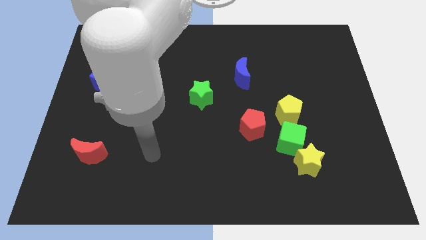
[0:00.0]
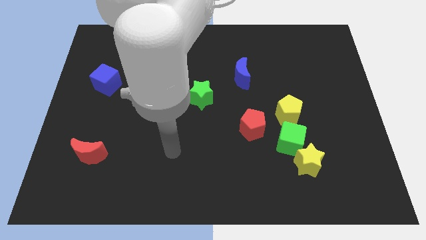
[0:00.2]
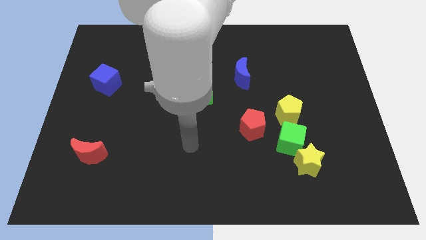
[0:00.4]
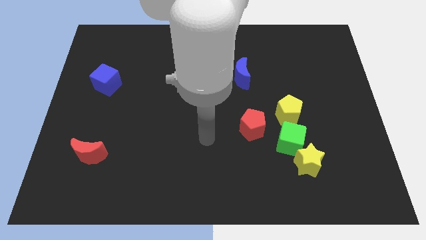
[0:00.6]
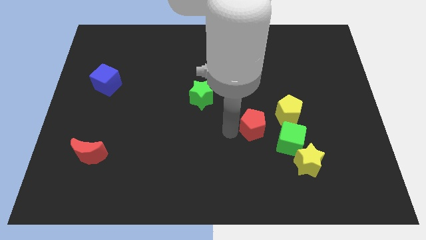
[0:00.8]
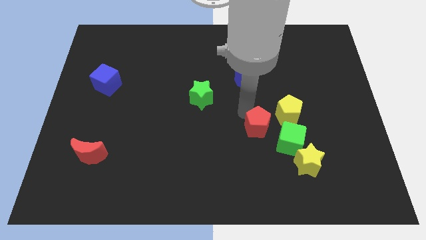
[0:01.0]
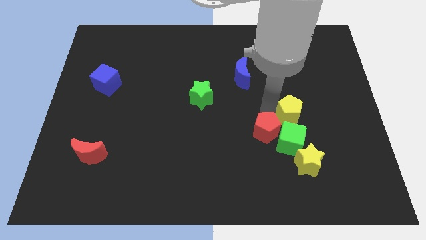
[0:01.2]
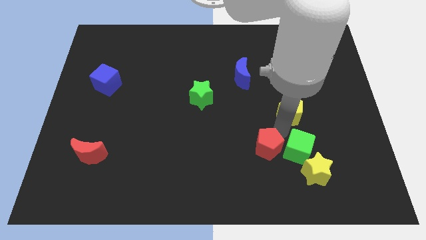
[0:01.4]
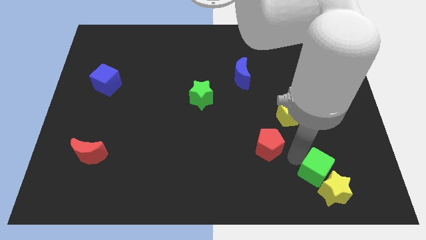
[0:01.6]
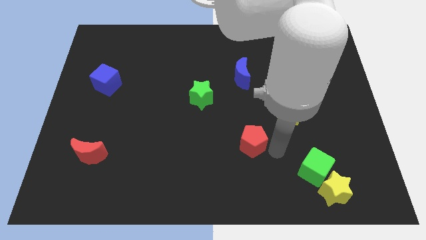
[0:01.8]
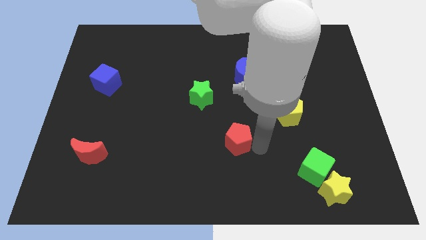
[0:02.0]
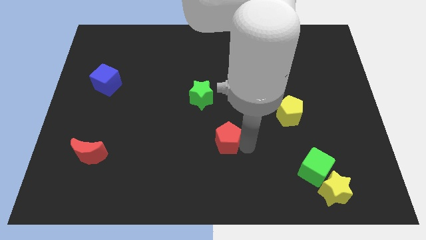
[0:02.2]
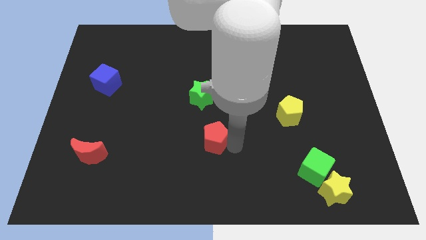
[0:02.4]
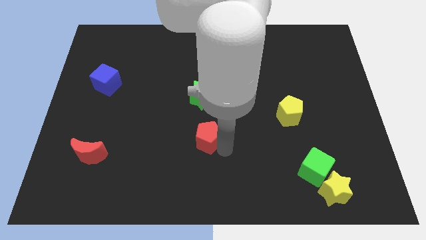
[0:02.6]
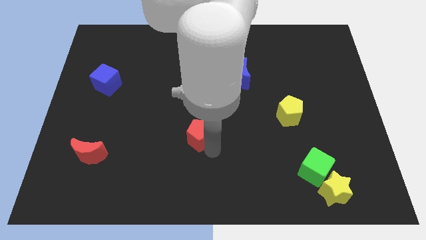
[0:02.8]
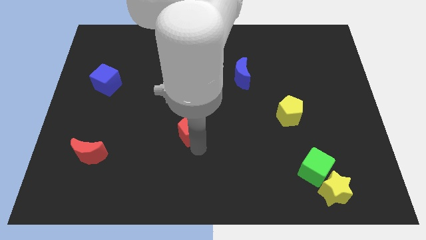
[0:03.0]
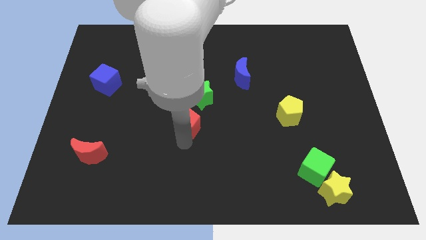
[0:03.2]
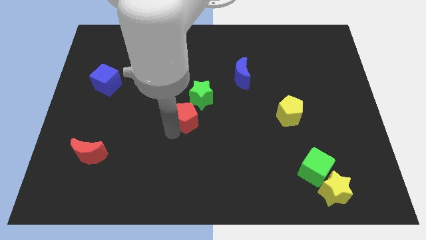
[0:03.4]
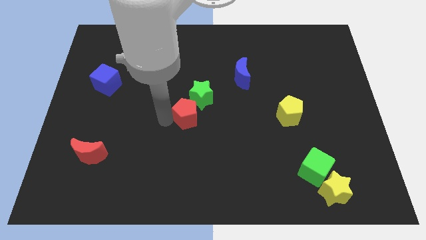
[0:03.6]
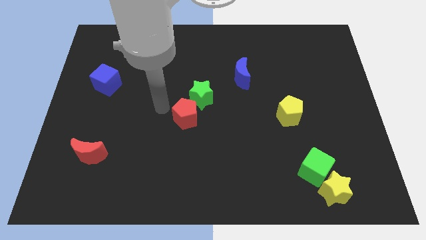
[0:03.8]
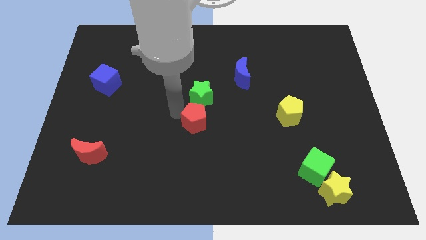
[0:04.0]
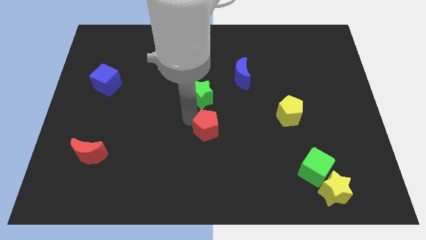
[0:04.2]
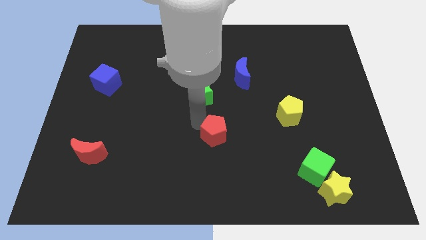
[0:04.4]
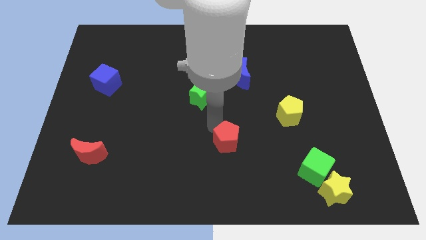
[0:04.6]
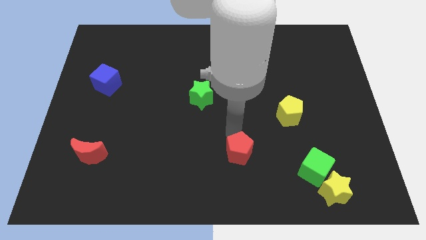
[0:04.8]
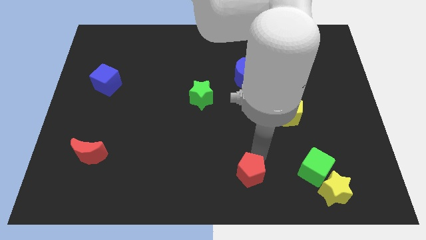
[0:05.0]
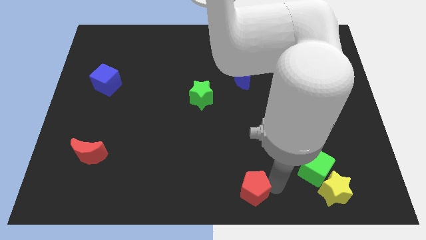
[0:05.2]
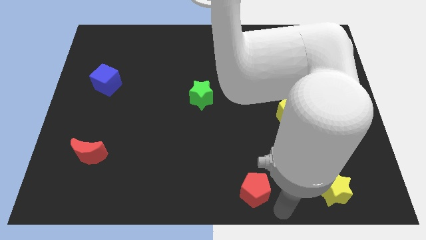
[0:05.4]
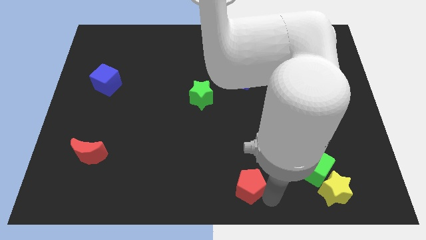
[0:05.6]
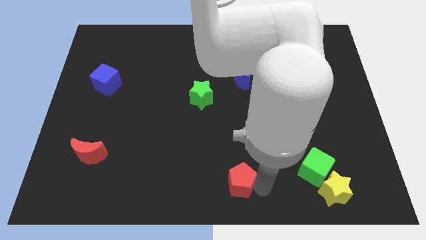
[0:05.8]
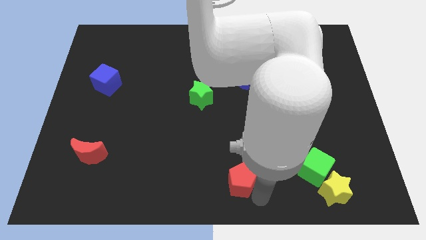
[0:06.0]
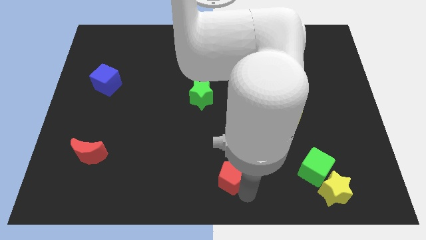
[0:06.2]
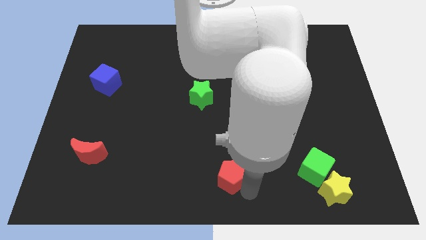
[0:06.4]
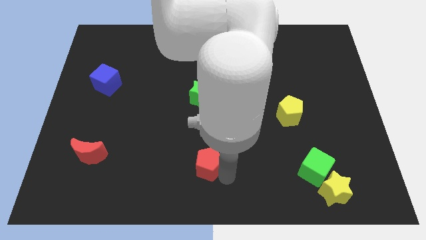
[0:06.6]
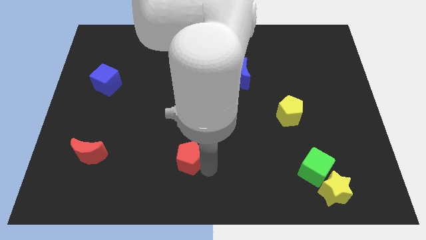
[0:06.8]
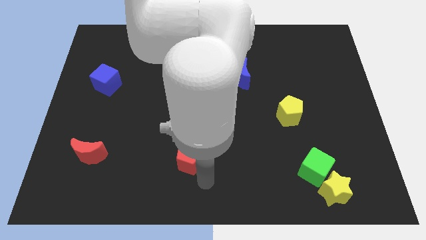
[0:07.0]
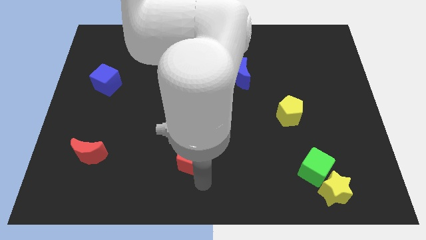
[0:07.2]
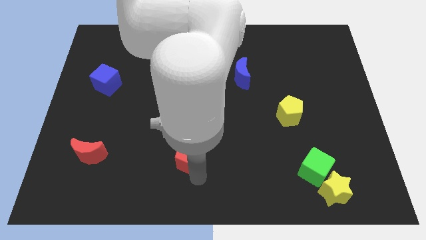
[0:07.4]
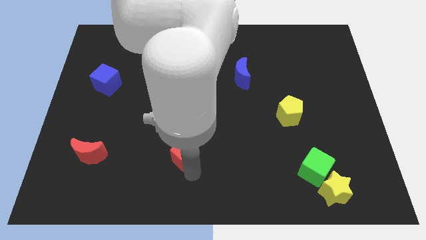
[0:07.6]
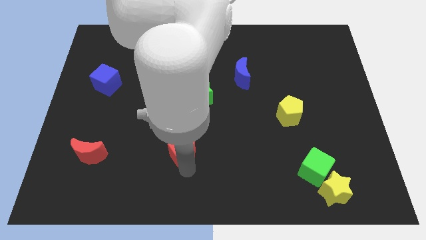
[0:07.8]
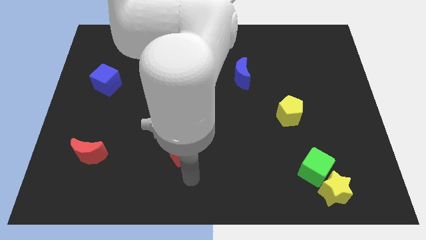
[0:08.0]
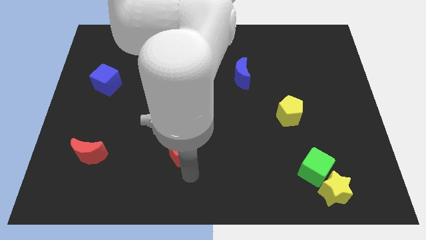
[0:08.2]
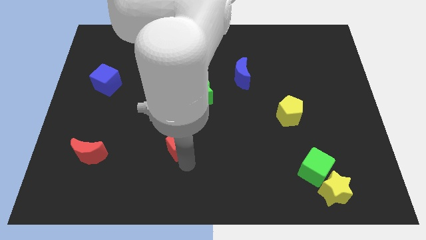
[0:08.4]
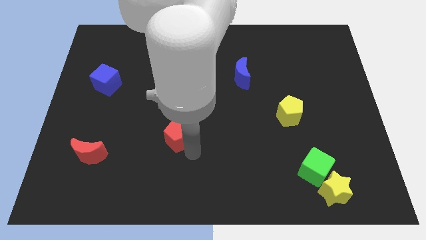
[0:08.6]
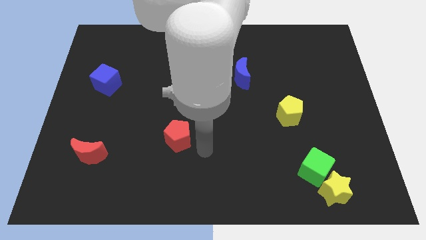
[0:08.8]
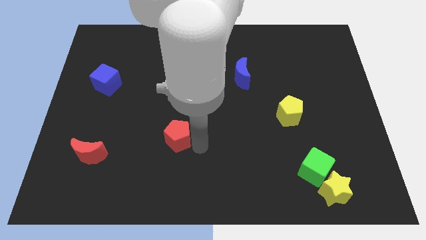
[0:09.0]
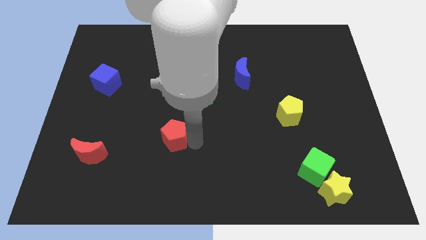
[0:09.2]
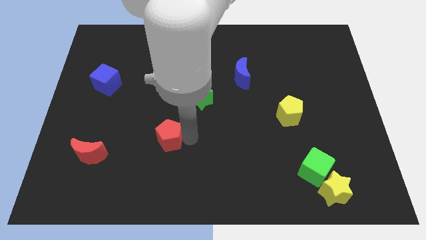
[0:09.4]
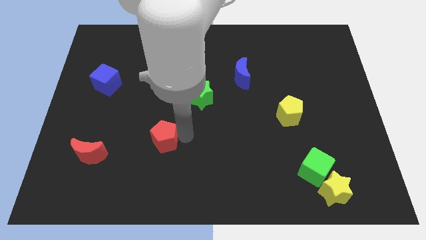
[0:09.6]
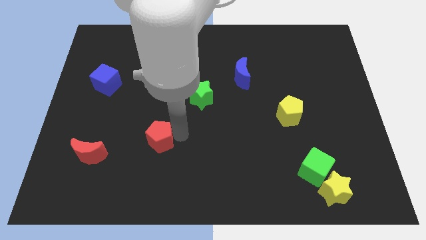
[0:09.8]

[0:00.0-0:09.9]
slide the red pentagon left

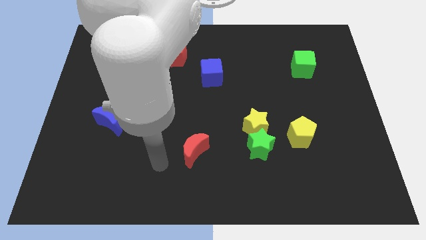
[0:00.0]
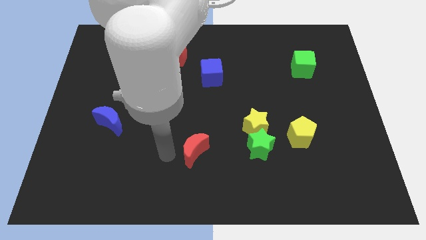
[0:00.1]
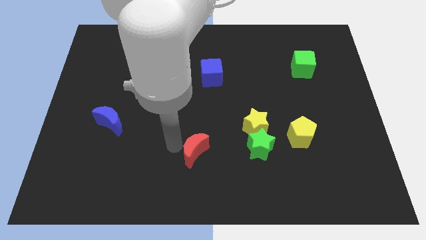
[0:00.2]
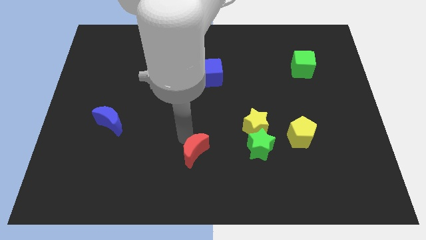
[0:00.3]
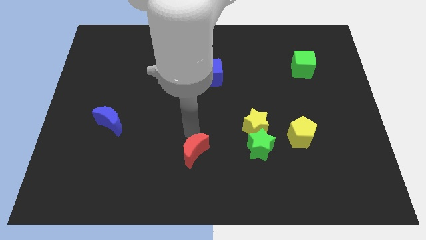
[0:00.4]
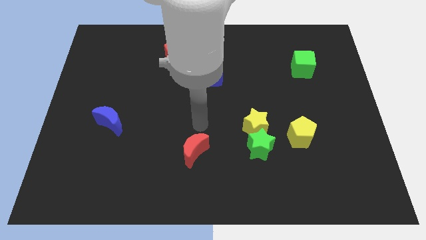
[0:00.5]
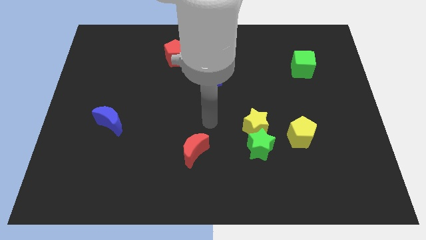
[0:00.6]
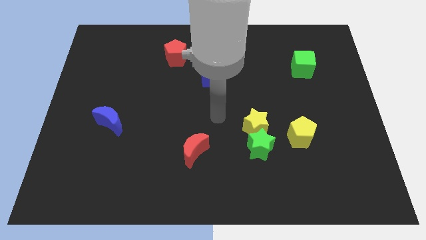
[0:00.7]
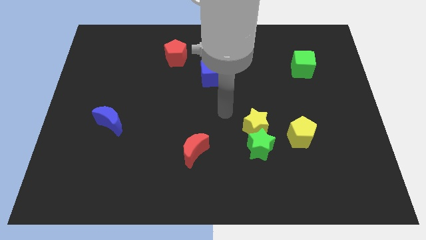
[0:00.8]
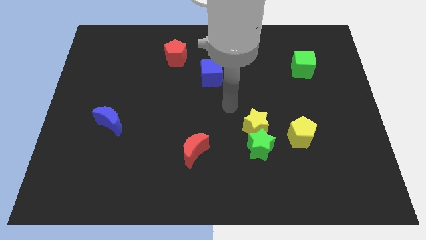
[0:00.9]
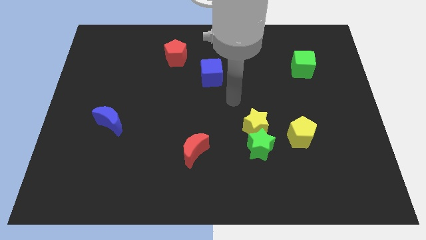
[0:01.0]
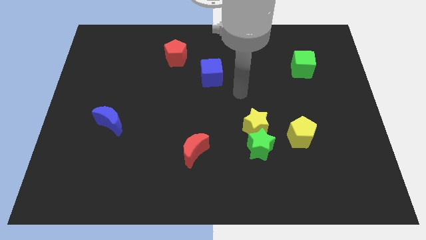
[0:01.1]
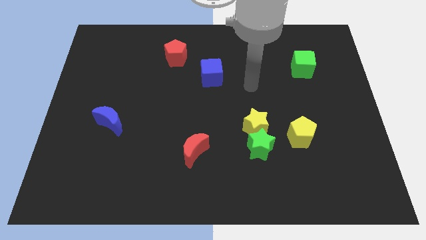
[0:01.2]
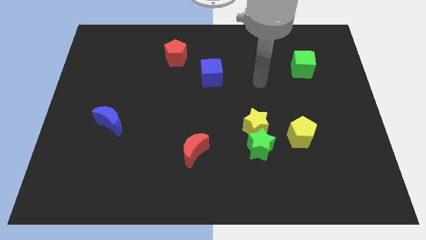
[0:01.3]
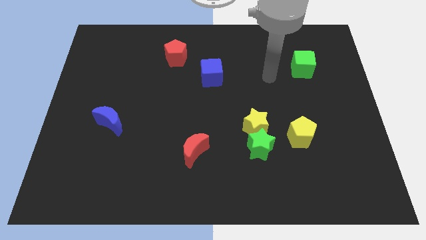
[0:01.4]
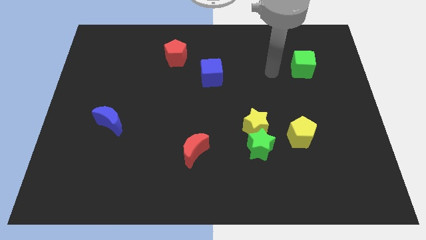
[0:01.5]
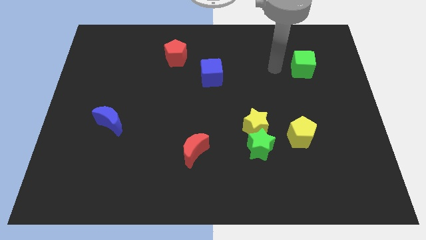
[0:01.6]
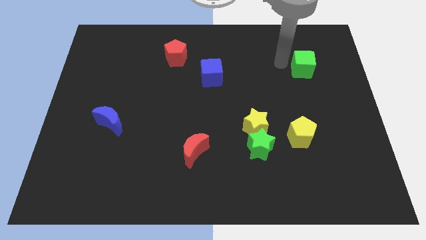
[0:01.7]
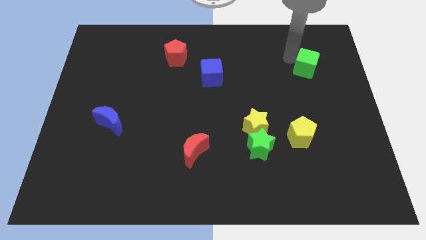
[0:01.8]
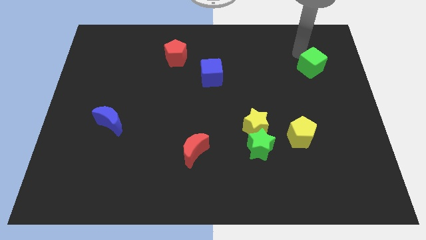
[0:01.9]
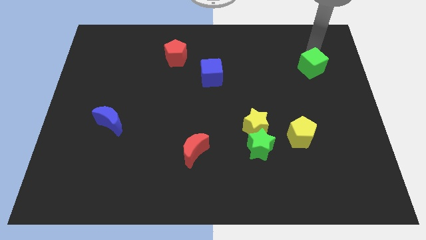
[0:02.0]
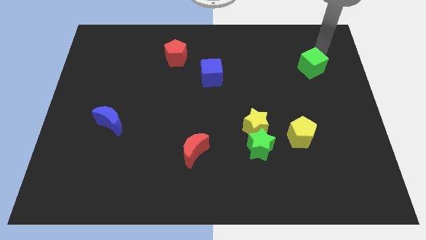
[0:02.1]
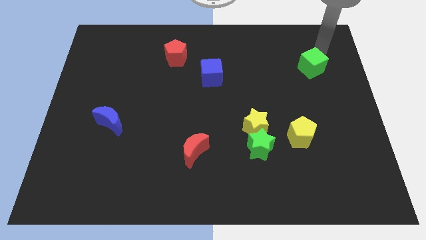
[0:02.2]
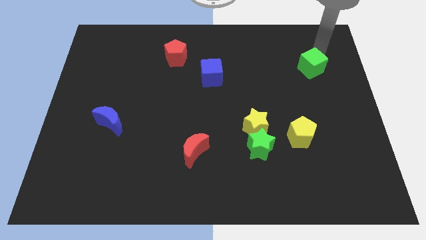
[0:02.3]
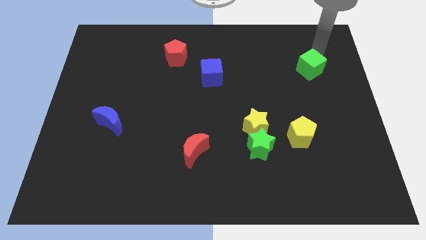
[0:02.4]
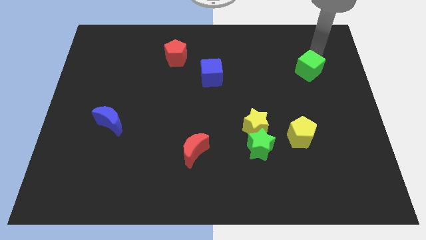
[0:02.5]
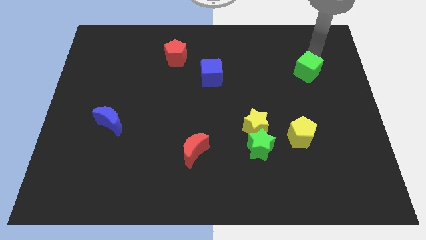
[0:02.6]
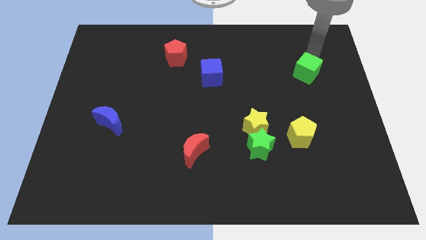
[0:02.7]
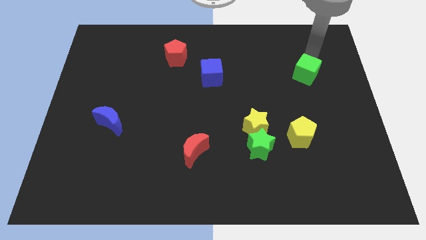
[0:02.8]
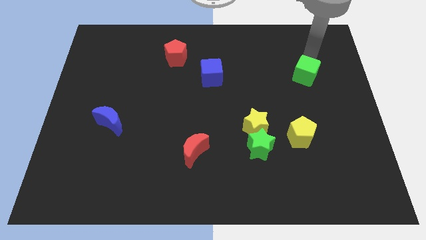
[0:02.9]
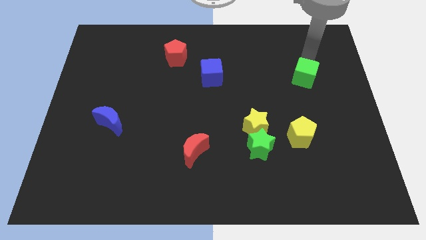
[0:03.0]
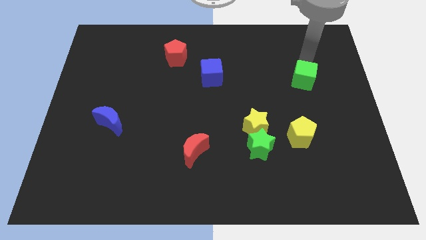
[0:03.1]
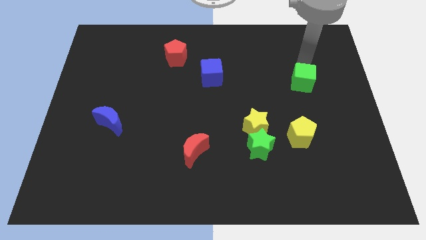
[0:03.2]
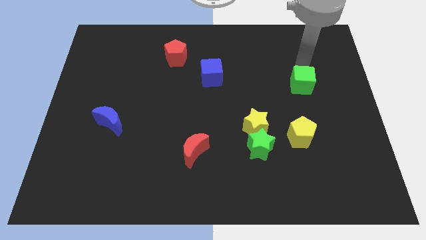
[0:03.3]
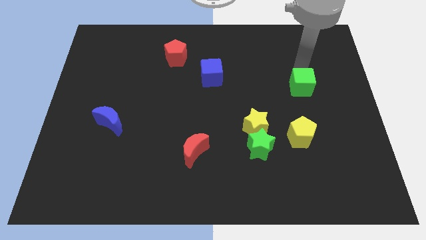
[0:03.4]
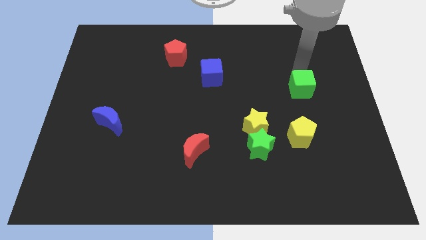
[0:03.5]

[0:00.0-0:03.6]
push the green cube downwards a little
